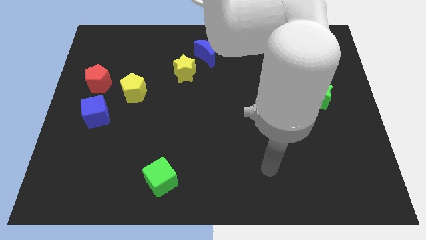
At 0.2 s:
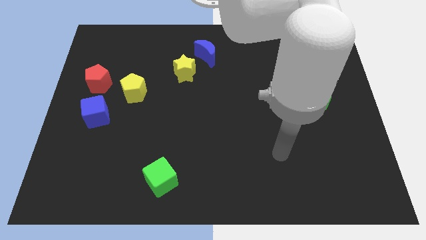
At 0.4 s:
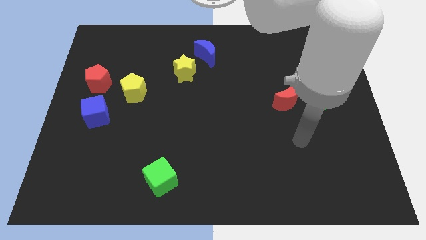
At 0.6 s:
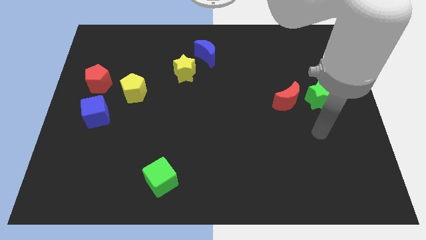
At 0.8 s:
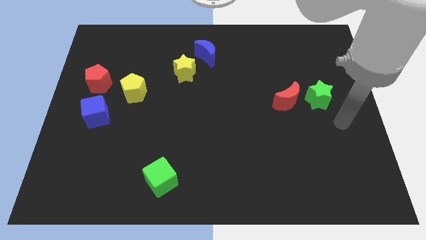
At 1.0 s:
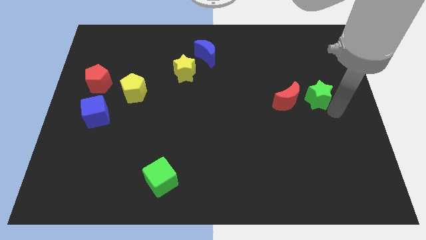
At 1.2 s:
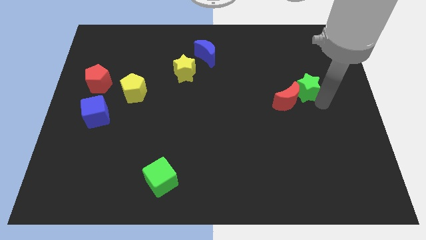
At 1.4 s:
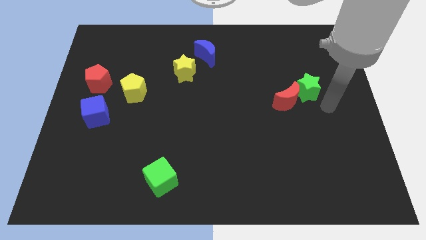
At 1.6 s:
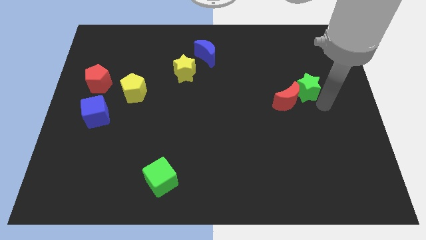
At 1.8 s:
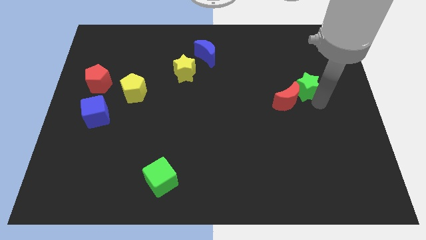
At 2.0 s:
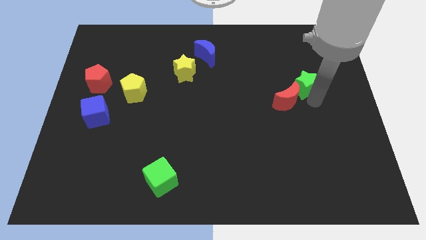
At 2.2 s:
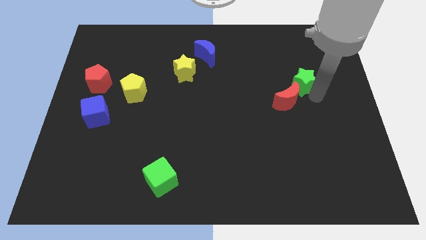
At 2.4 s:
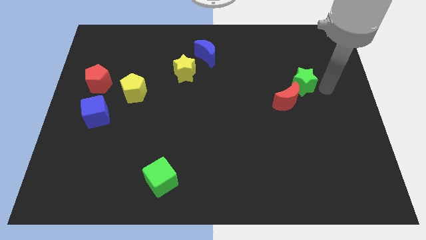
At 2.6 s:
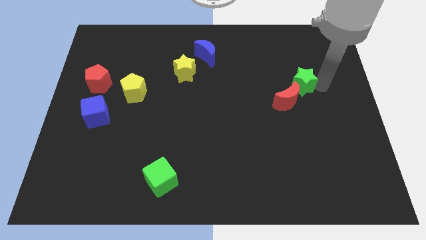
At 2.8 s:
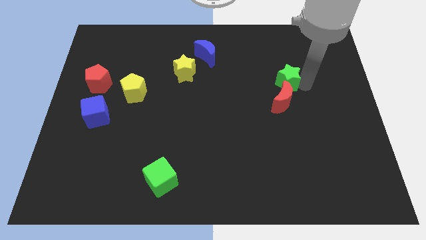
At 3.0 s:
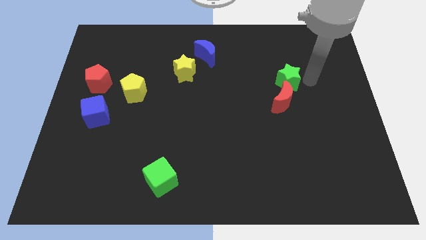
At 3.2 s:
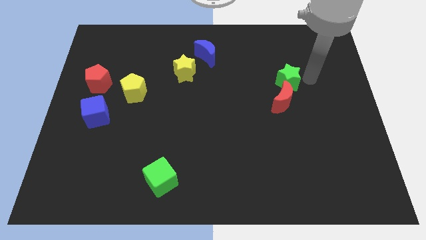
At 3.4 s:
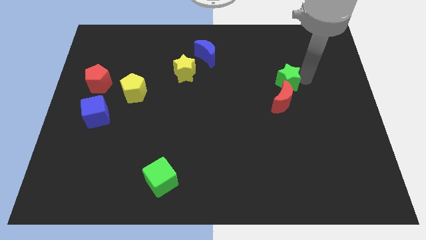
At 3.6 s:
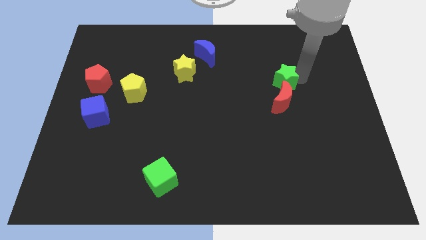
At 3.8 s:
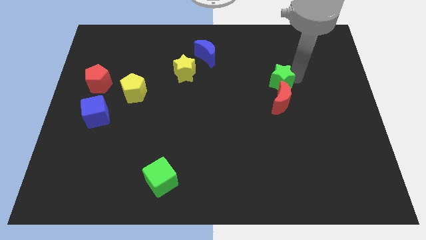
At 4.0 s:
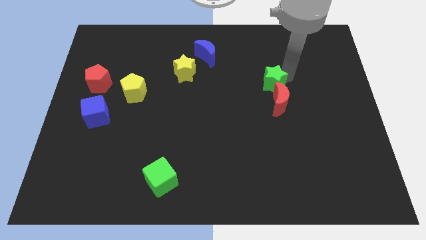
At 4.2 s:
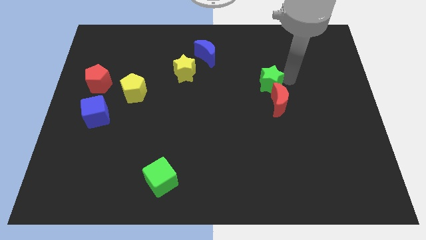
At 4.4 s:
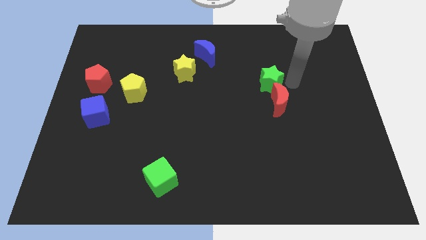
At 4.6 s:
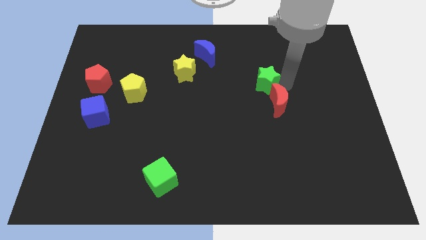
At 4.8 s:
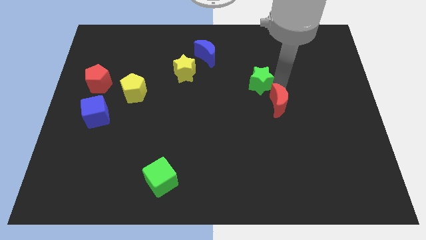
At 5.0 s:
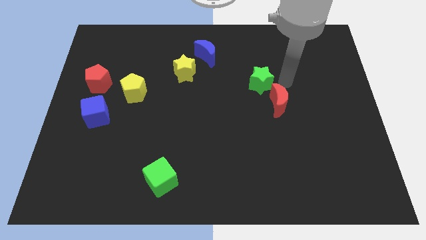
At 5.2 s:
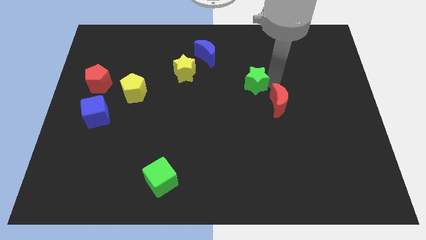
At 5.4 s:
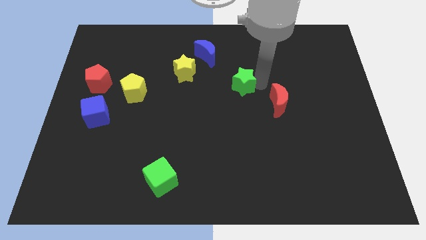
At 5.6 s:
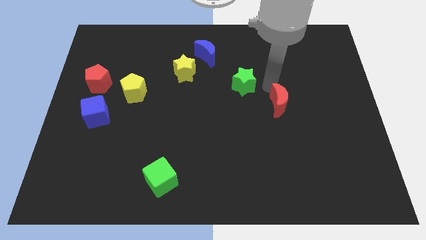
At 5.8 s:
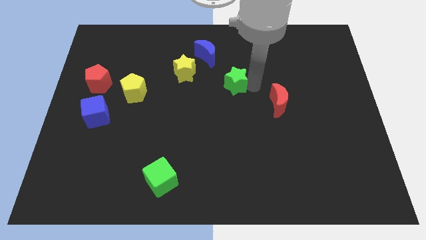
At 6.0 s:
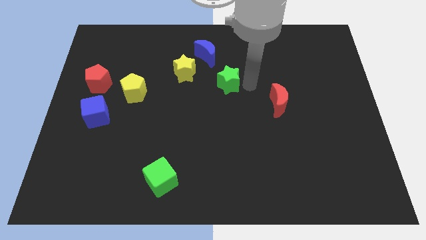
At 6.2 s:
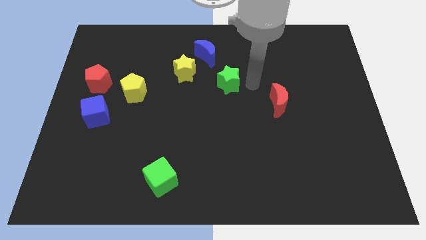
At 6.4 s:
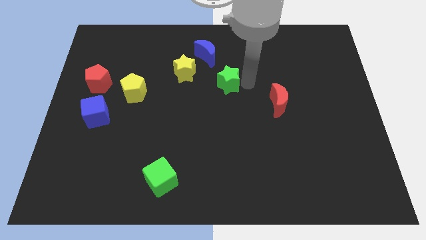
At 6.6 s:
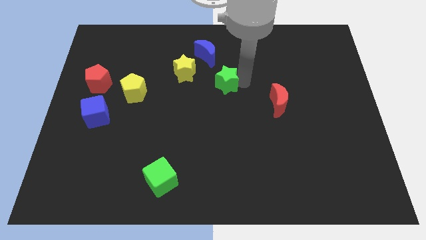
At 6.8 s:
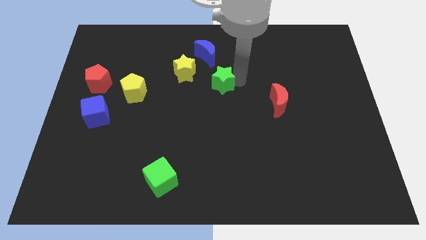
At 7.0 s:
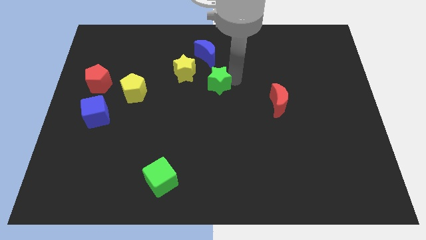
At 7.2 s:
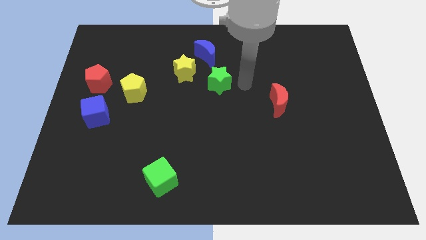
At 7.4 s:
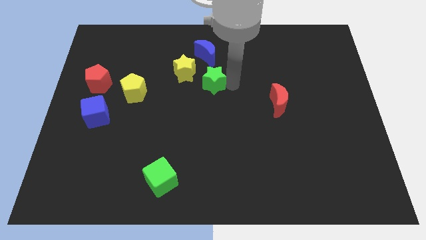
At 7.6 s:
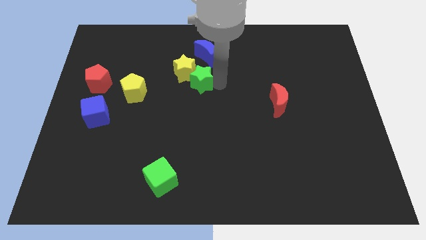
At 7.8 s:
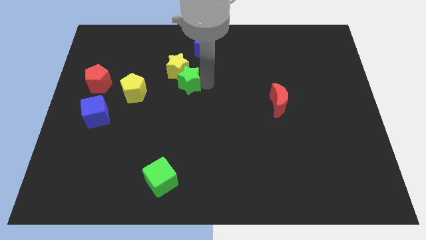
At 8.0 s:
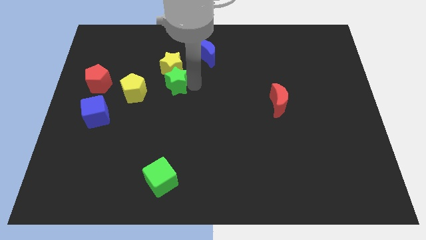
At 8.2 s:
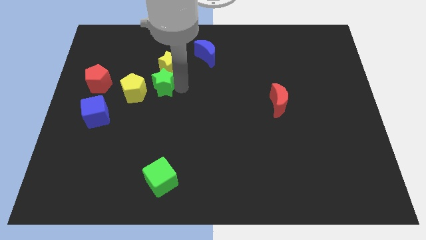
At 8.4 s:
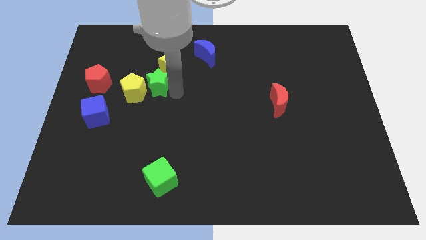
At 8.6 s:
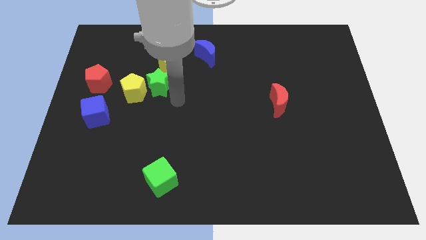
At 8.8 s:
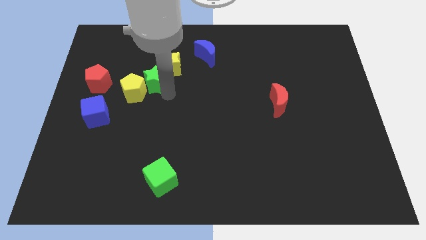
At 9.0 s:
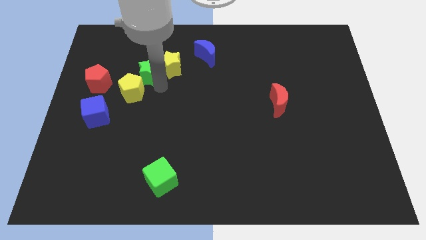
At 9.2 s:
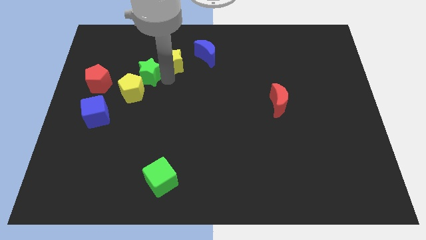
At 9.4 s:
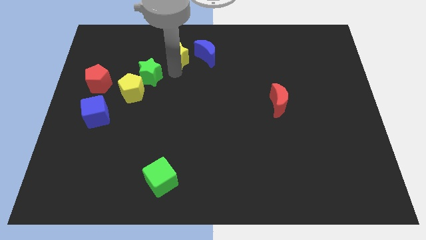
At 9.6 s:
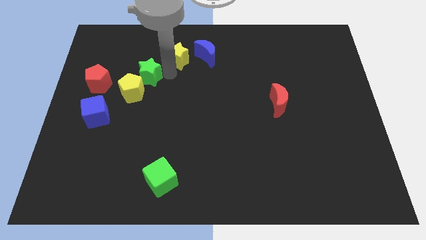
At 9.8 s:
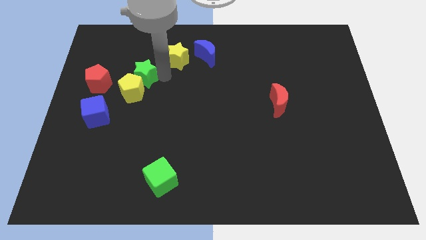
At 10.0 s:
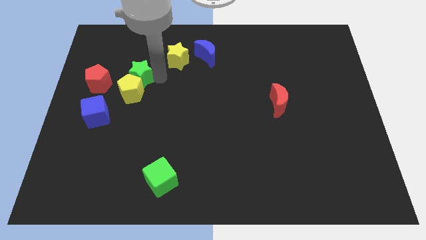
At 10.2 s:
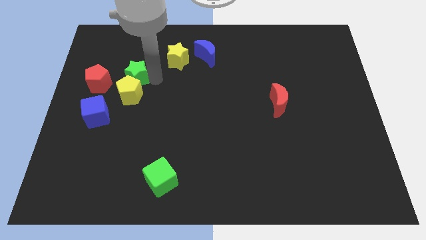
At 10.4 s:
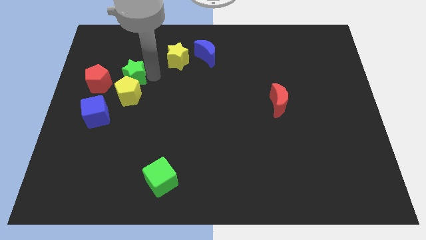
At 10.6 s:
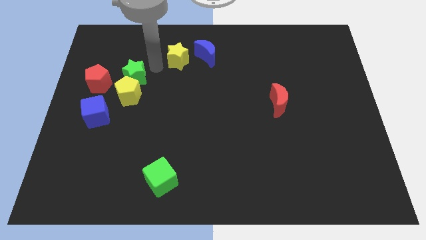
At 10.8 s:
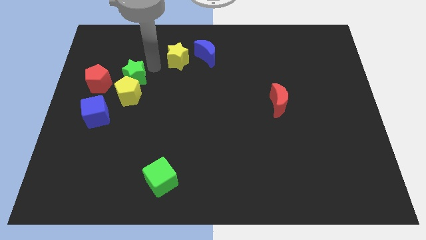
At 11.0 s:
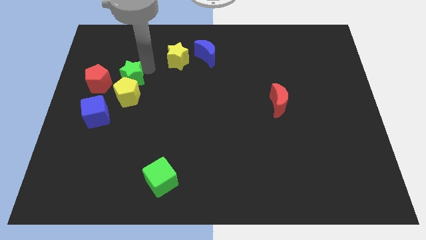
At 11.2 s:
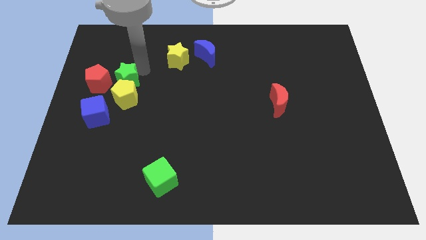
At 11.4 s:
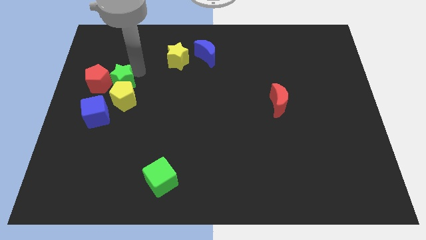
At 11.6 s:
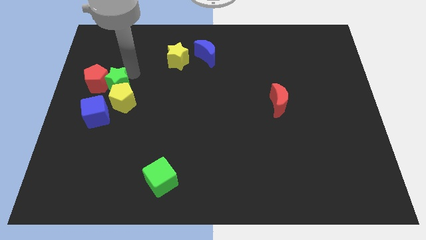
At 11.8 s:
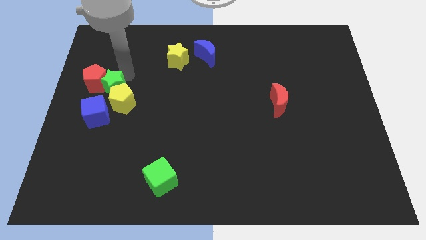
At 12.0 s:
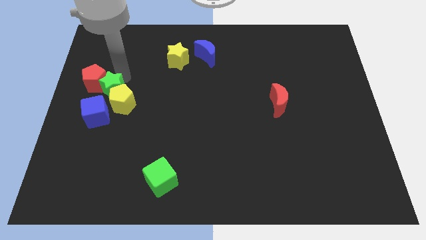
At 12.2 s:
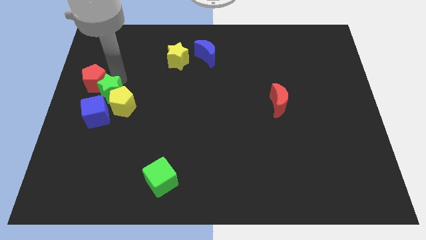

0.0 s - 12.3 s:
put the green star to the left side

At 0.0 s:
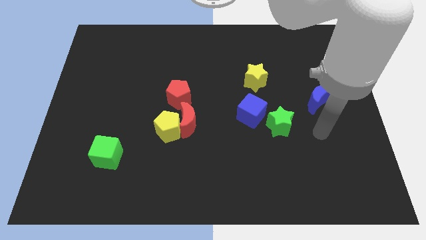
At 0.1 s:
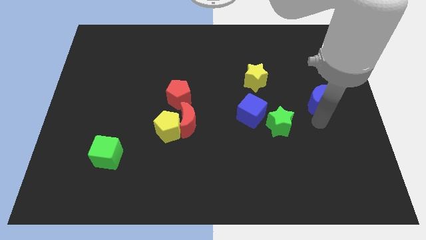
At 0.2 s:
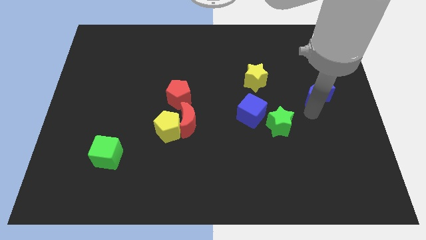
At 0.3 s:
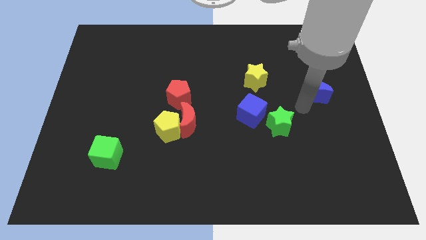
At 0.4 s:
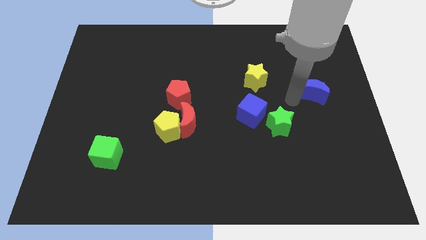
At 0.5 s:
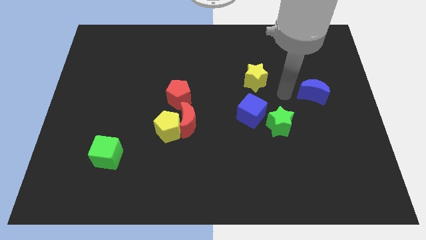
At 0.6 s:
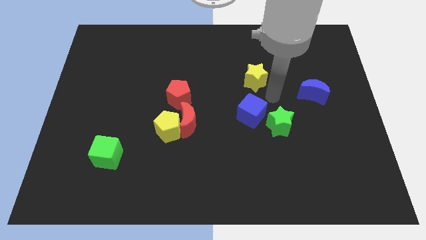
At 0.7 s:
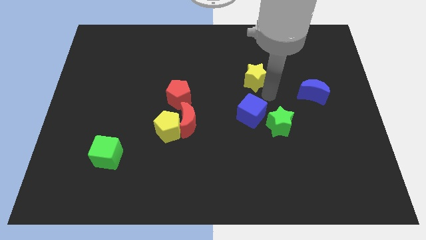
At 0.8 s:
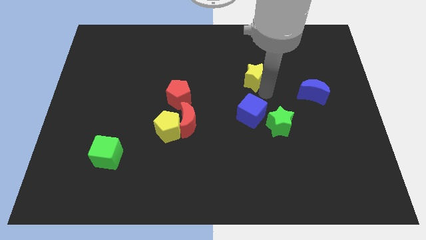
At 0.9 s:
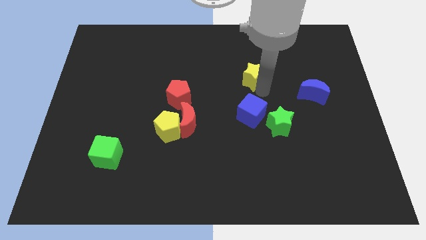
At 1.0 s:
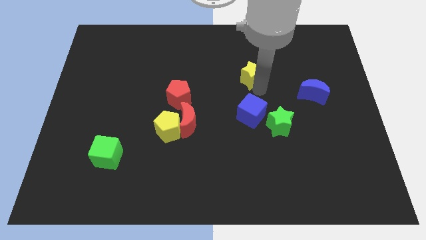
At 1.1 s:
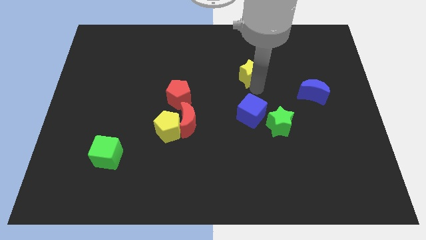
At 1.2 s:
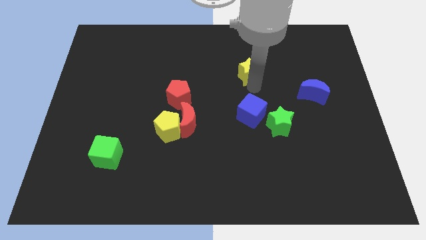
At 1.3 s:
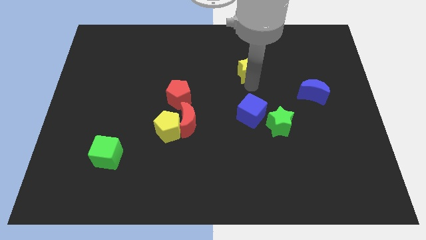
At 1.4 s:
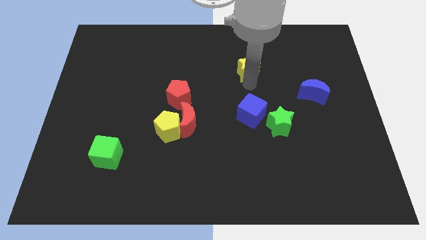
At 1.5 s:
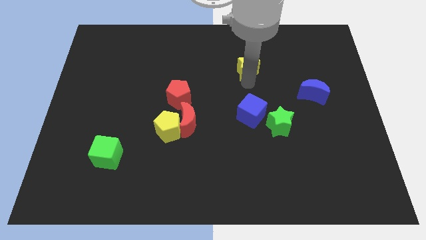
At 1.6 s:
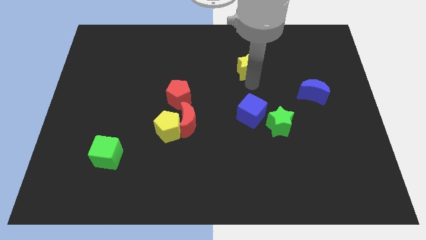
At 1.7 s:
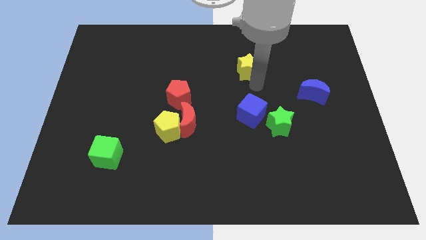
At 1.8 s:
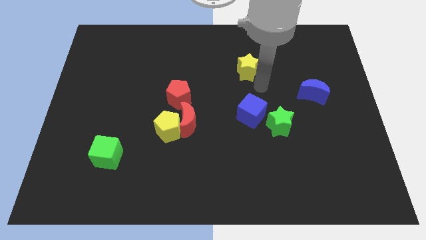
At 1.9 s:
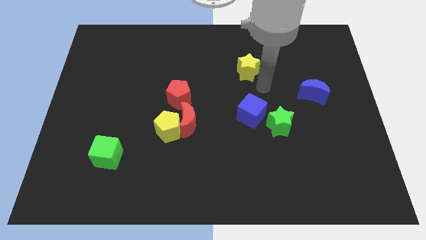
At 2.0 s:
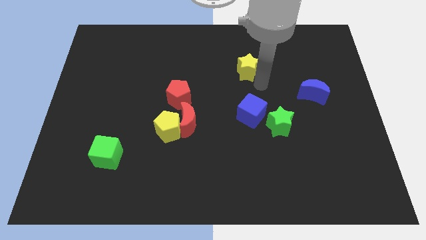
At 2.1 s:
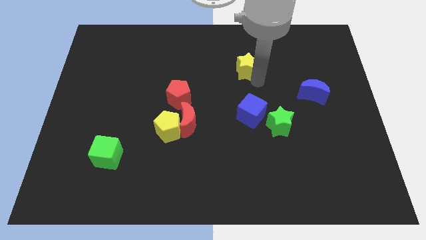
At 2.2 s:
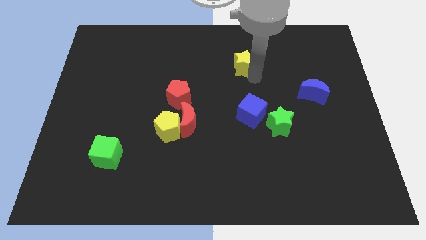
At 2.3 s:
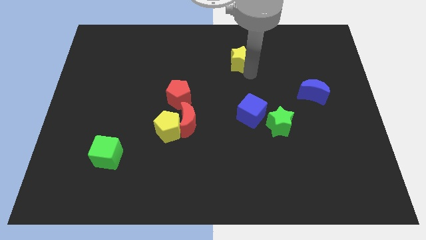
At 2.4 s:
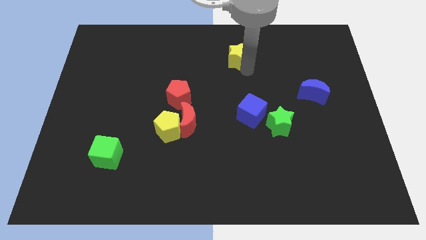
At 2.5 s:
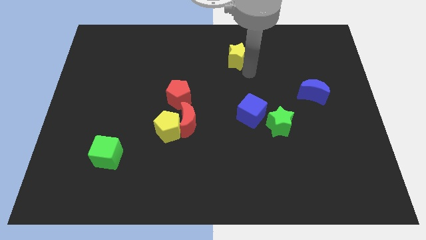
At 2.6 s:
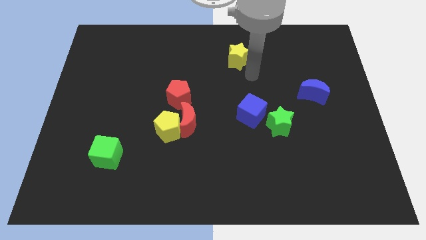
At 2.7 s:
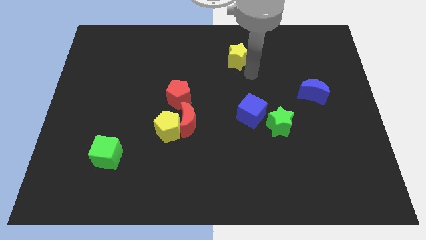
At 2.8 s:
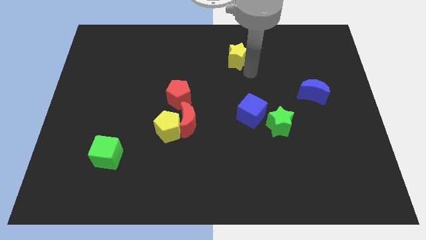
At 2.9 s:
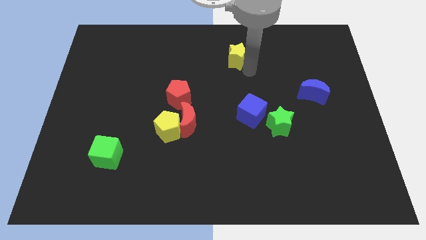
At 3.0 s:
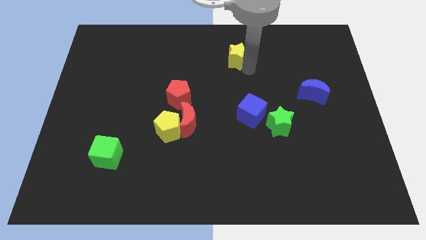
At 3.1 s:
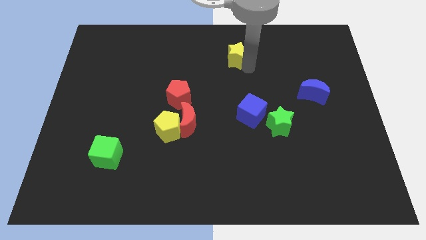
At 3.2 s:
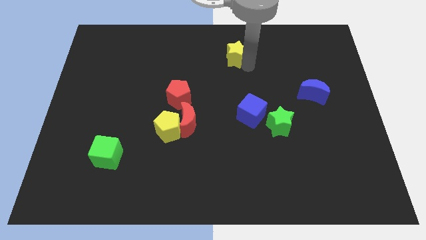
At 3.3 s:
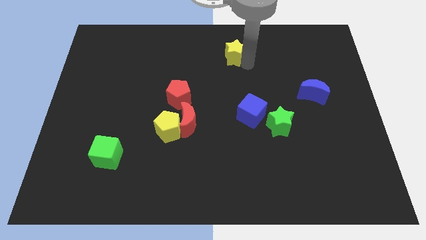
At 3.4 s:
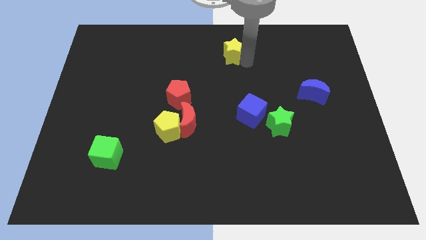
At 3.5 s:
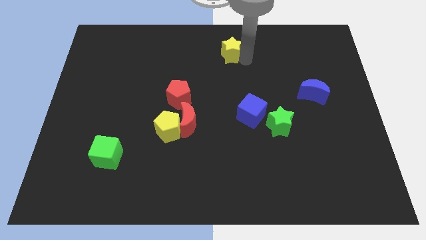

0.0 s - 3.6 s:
put the yellow star to the top side
